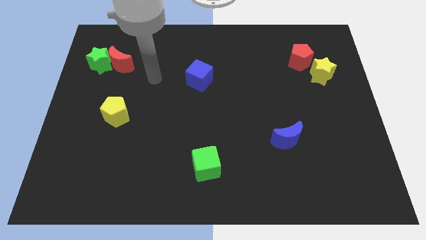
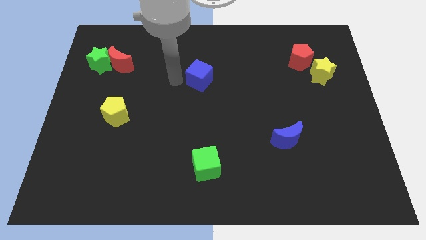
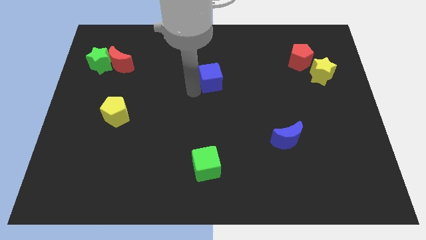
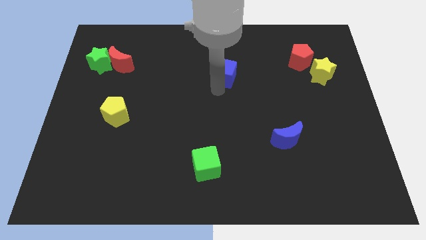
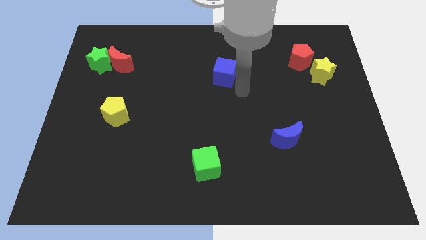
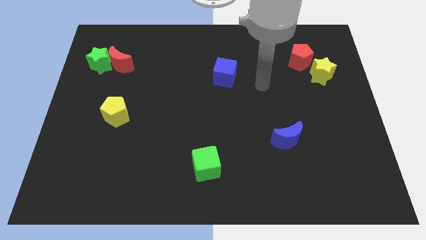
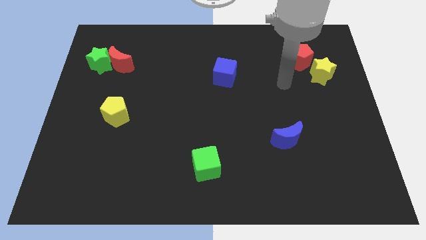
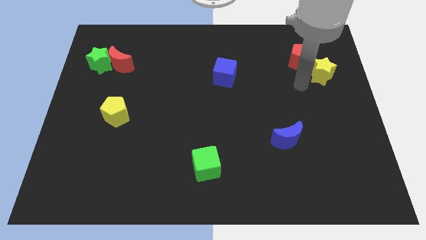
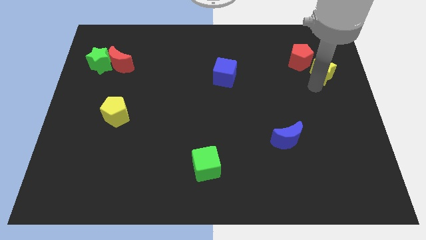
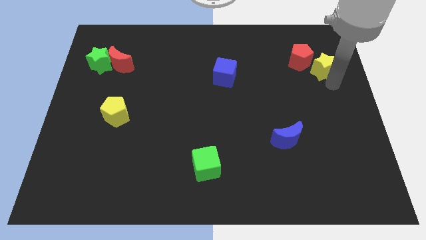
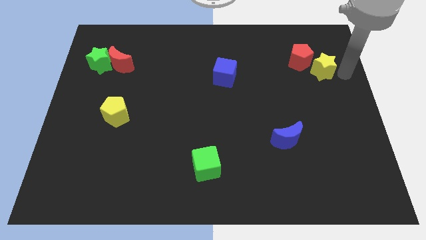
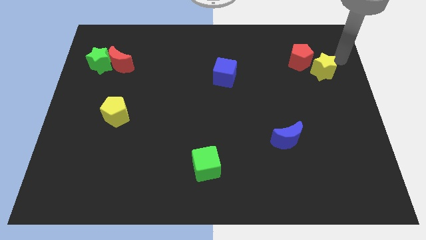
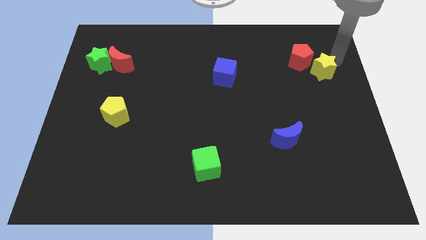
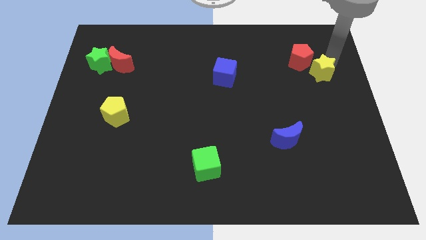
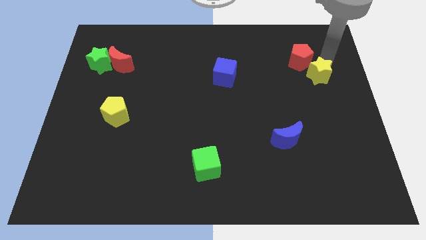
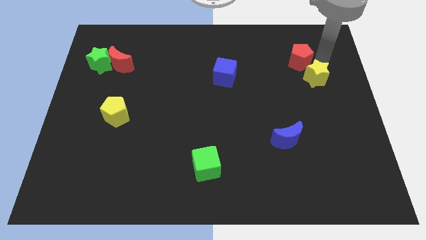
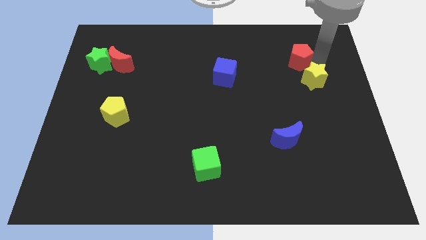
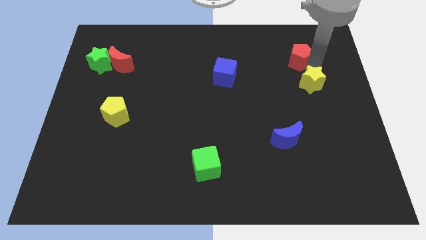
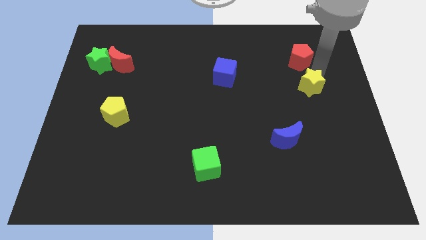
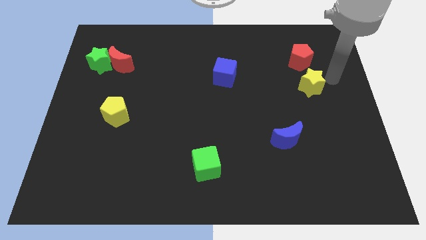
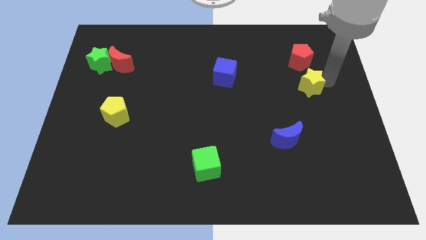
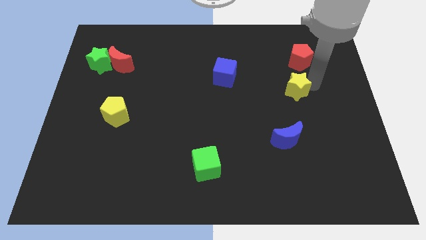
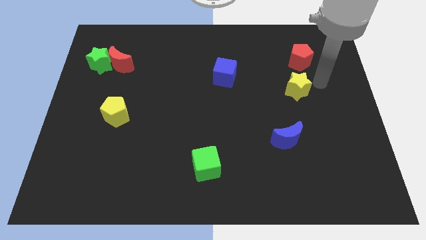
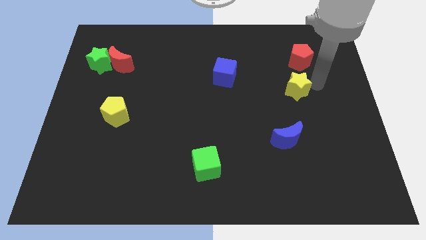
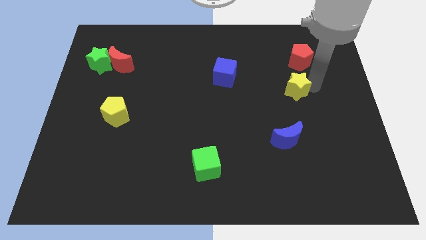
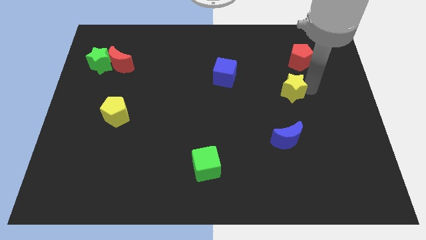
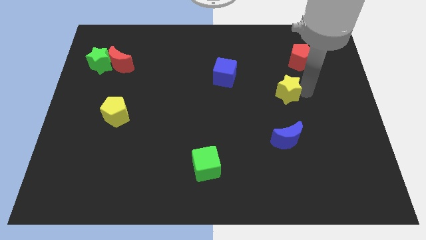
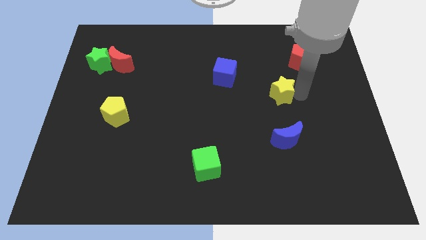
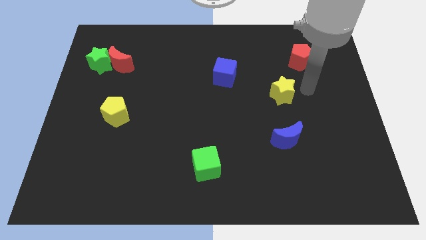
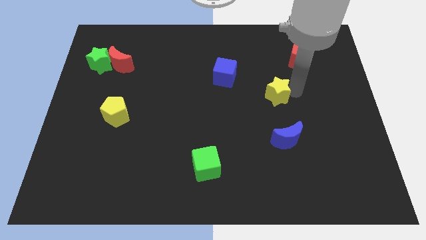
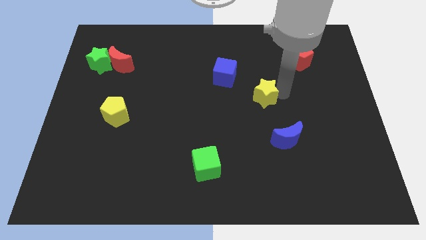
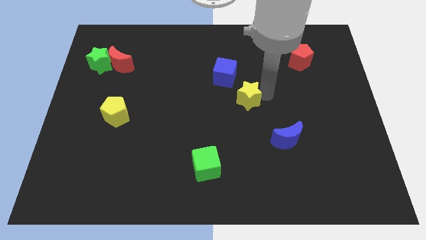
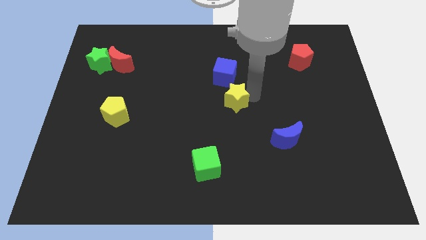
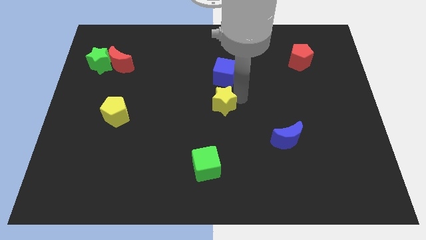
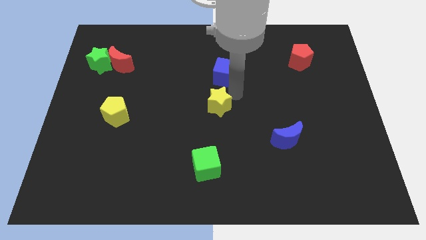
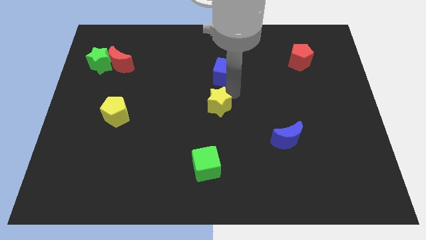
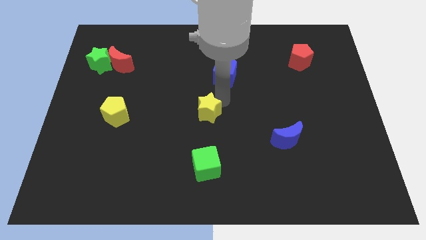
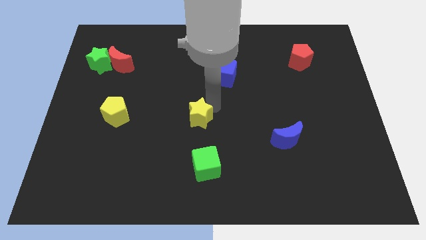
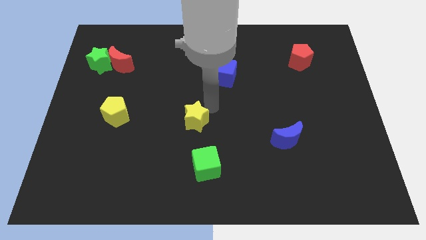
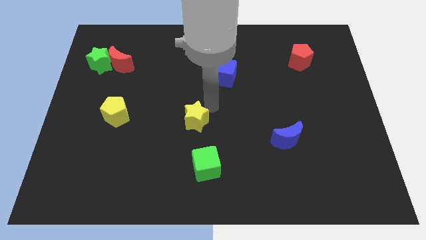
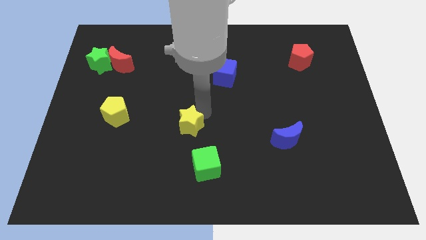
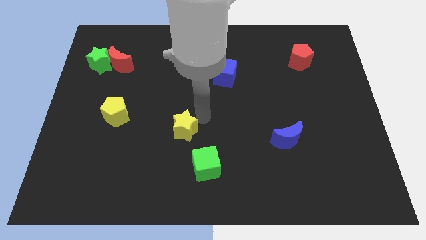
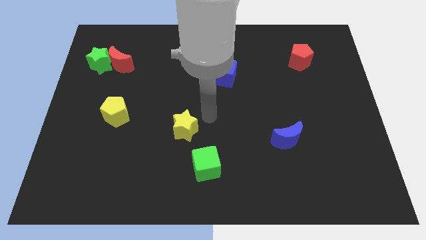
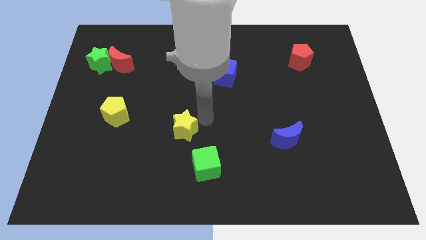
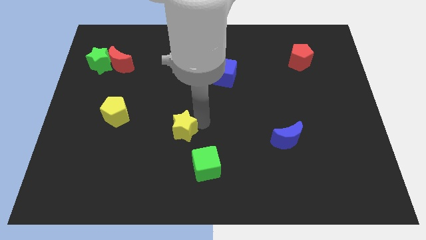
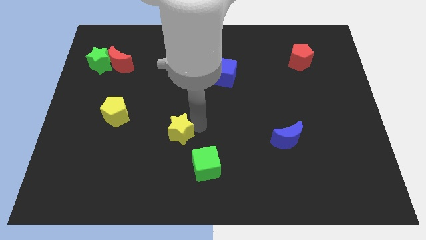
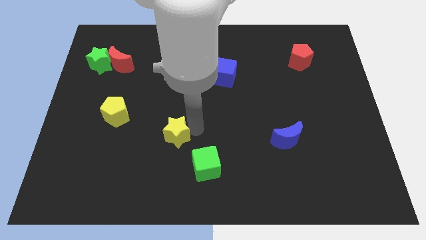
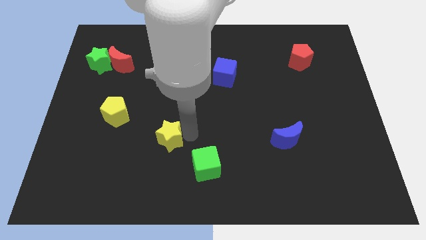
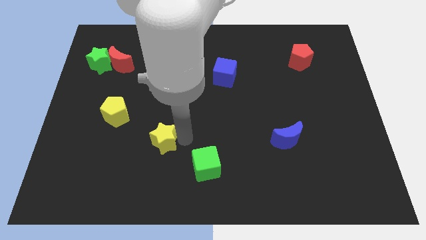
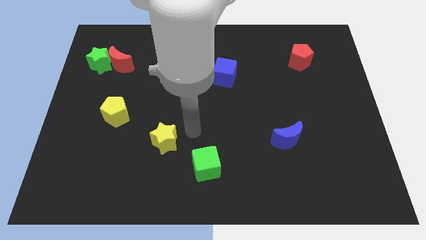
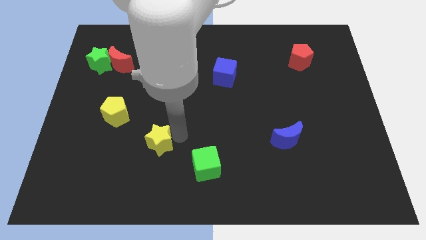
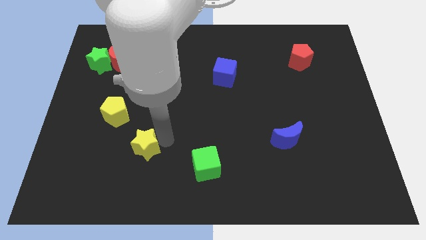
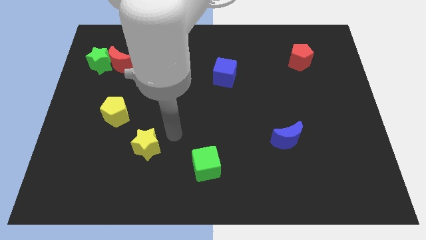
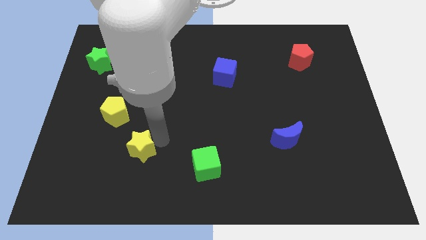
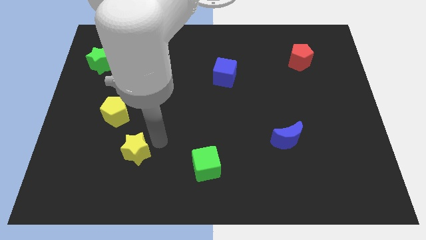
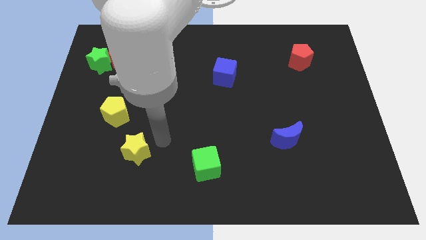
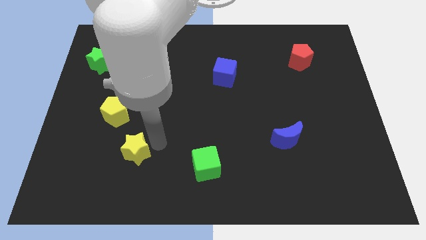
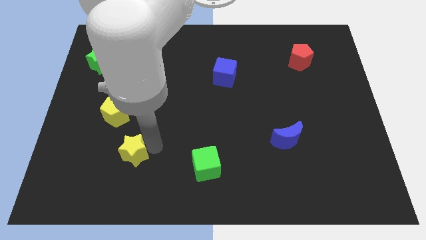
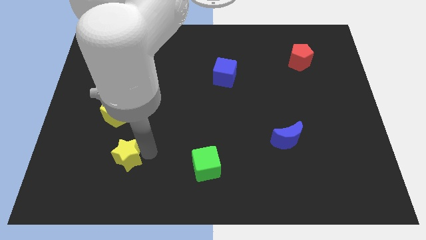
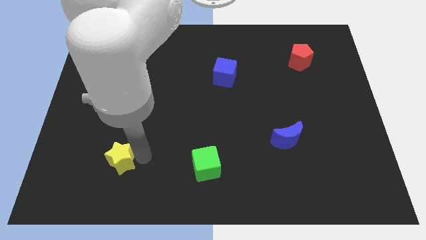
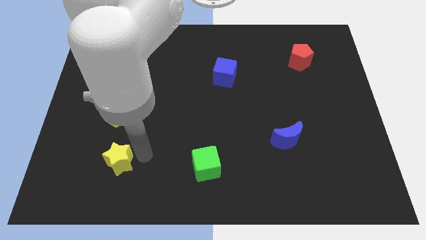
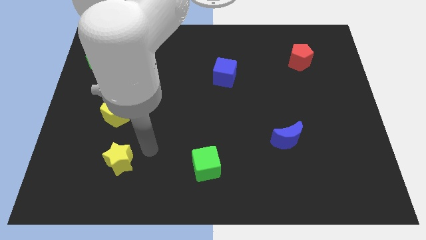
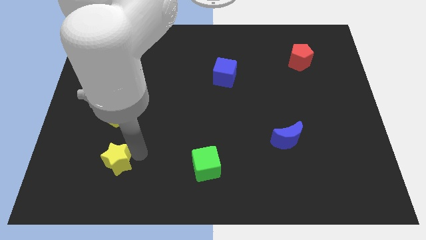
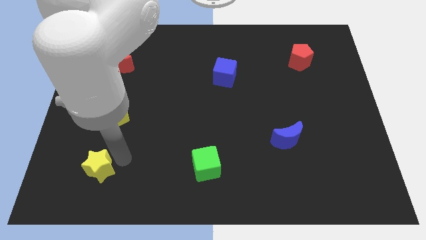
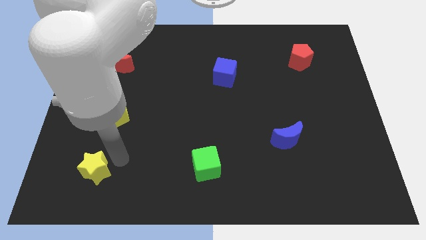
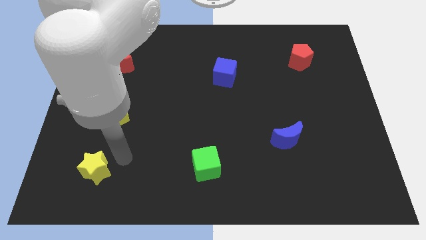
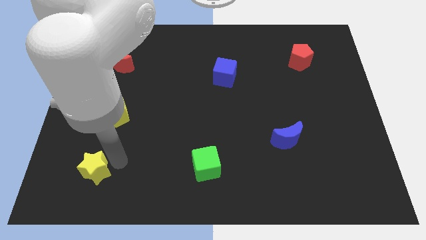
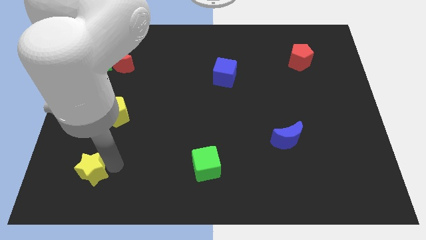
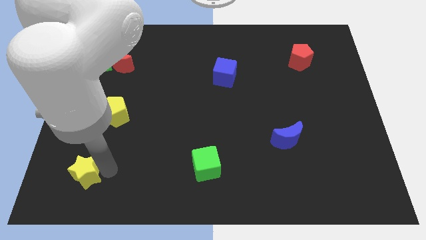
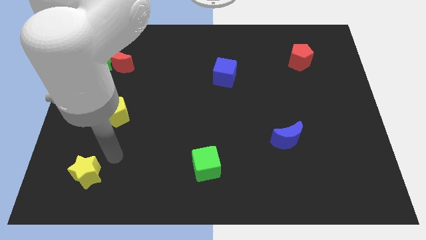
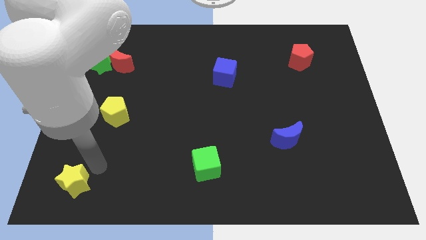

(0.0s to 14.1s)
put the yellow star to the bottom left
